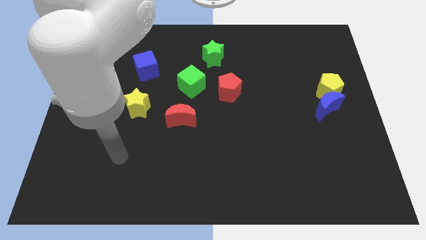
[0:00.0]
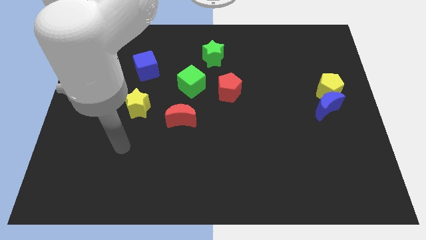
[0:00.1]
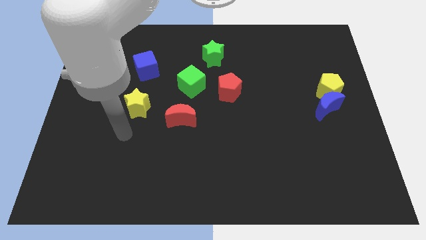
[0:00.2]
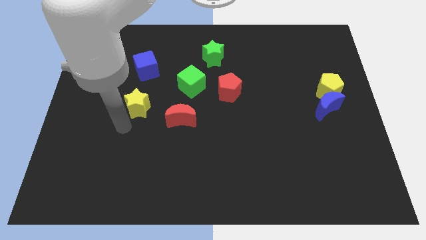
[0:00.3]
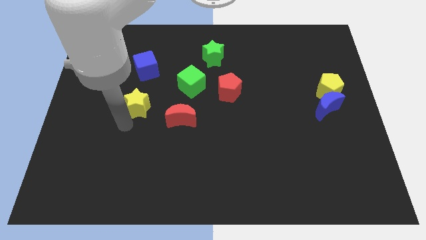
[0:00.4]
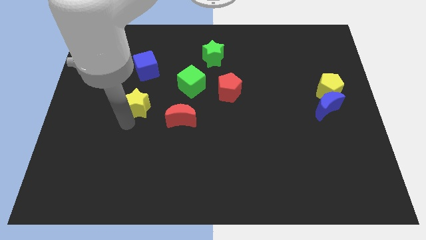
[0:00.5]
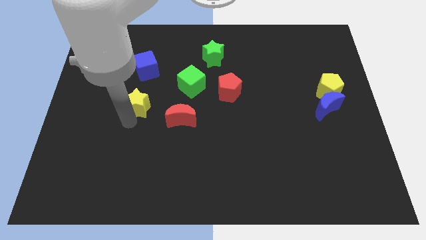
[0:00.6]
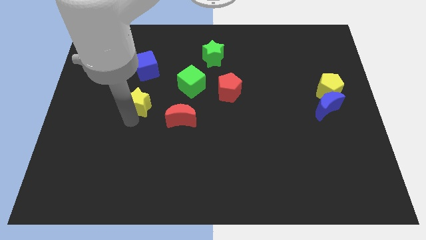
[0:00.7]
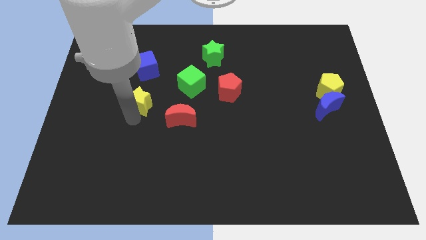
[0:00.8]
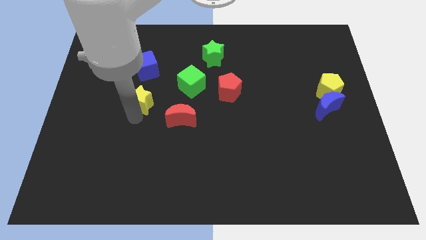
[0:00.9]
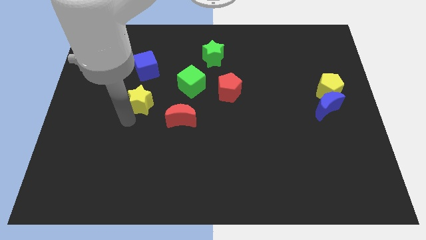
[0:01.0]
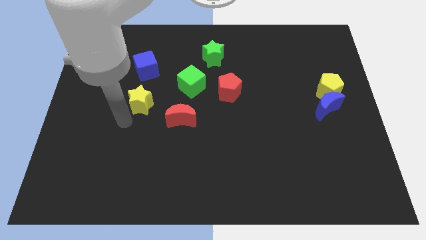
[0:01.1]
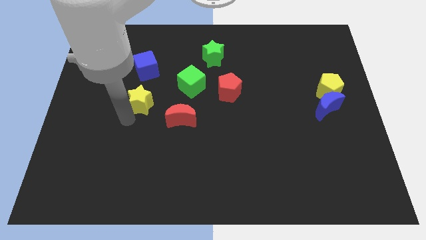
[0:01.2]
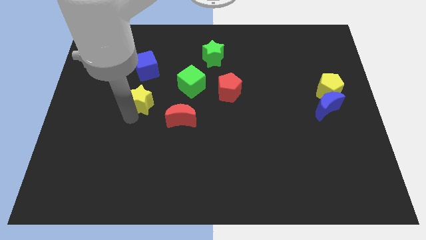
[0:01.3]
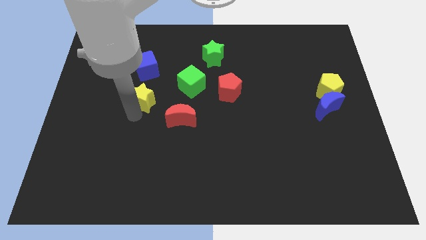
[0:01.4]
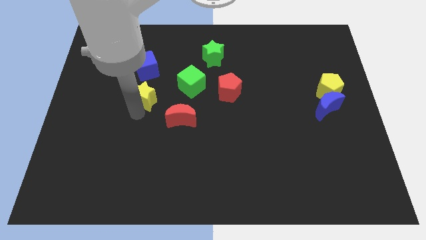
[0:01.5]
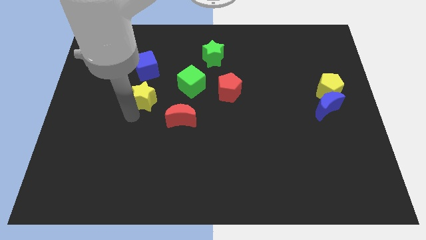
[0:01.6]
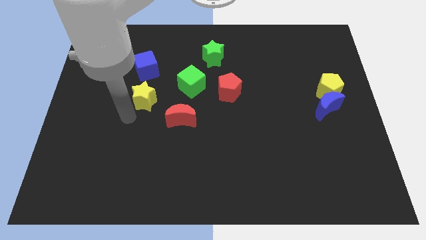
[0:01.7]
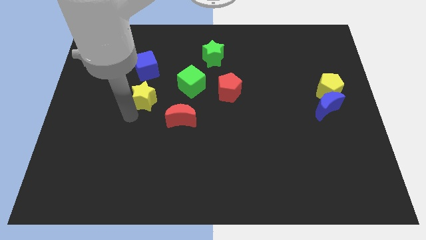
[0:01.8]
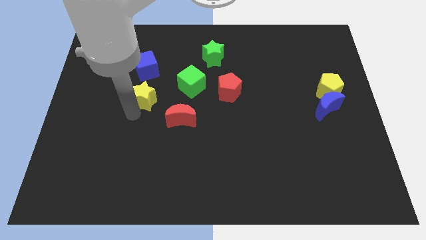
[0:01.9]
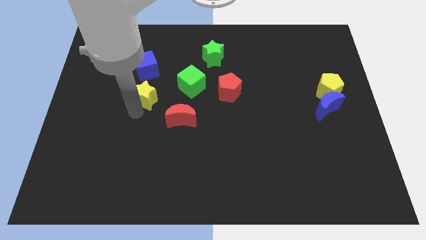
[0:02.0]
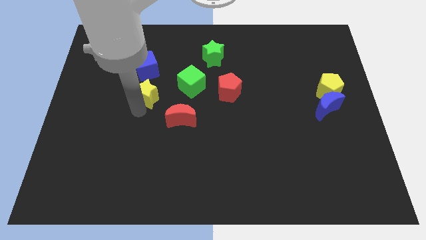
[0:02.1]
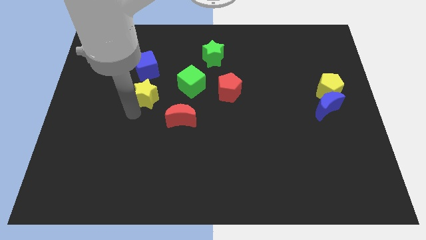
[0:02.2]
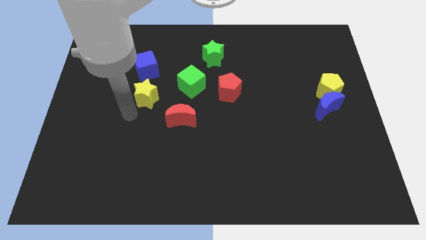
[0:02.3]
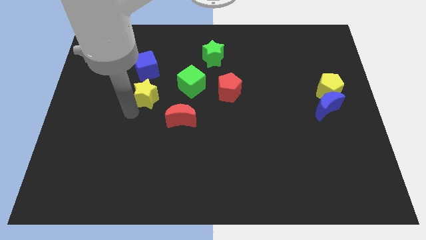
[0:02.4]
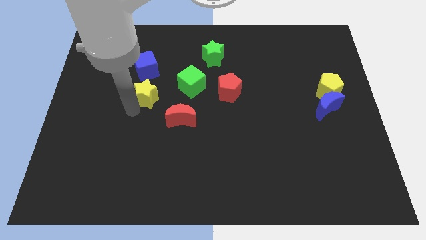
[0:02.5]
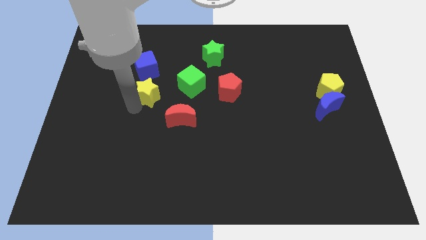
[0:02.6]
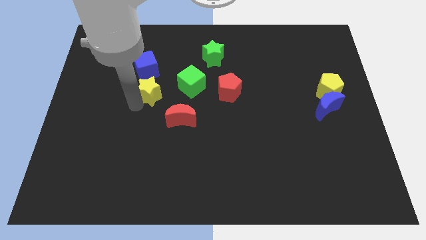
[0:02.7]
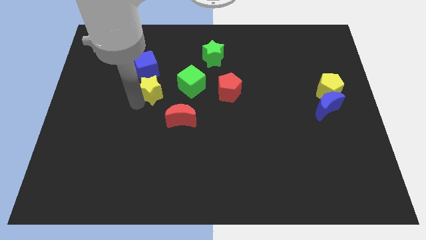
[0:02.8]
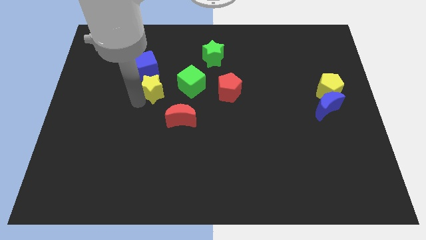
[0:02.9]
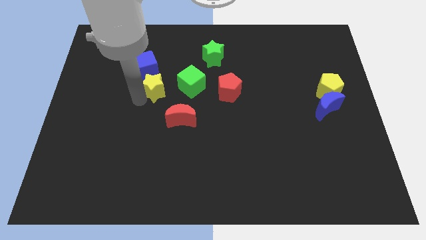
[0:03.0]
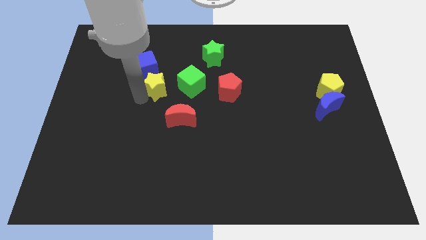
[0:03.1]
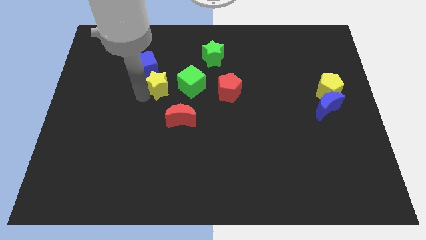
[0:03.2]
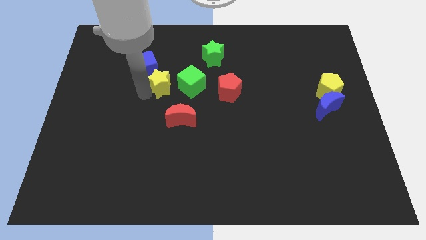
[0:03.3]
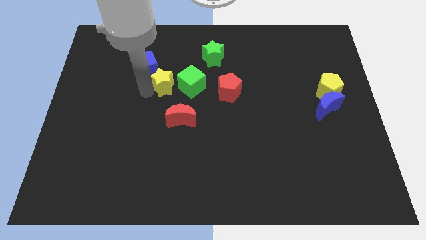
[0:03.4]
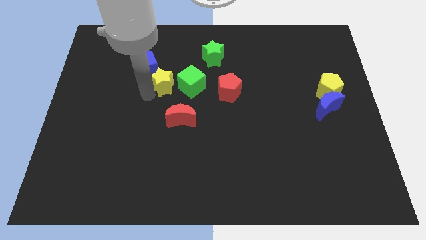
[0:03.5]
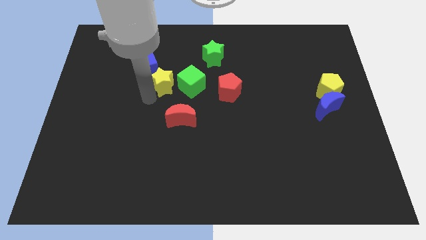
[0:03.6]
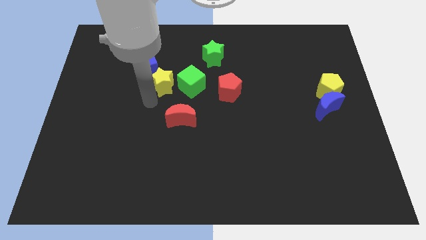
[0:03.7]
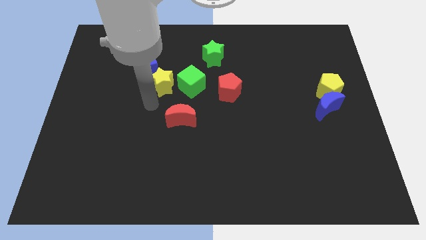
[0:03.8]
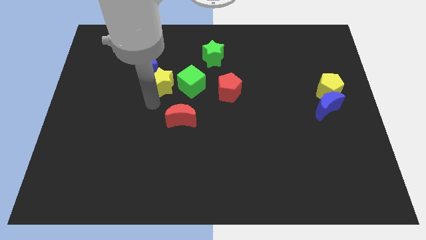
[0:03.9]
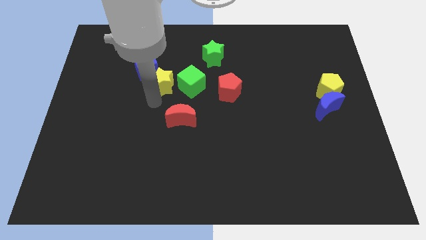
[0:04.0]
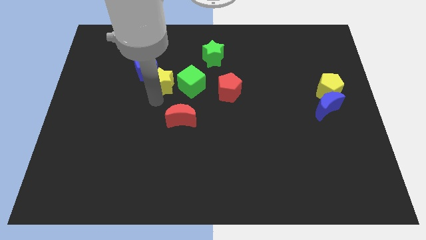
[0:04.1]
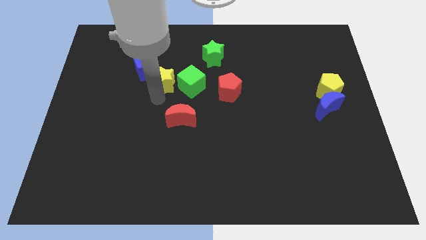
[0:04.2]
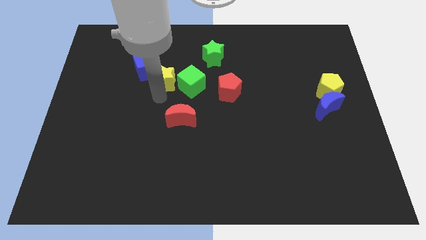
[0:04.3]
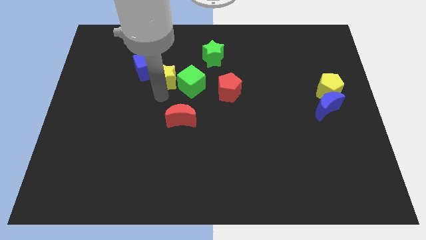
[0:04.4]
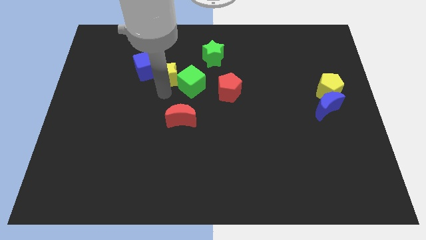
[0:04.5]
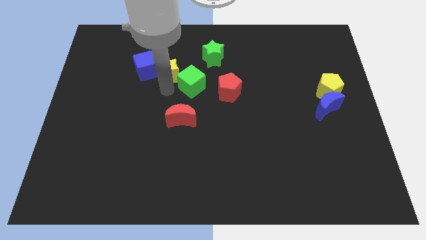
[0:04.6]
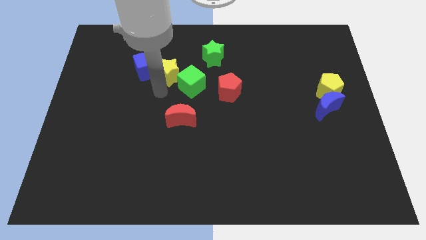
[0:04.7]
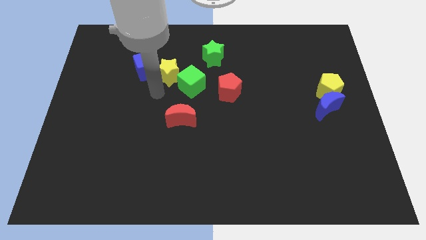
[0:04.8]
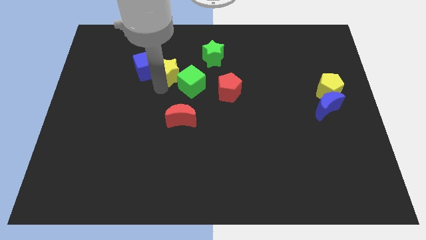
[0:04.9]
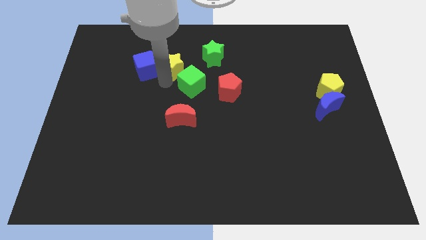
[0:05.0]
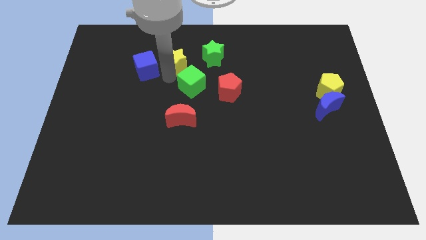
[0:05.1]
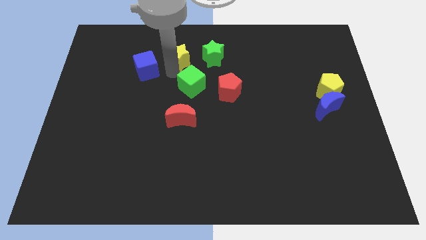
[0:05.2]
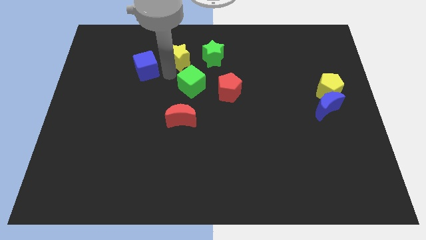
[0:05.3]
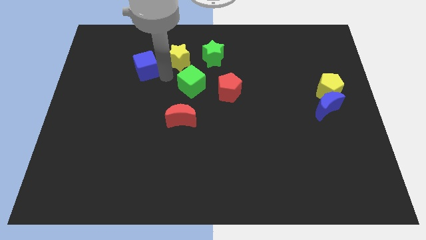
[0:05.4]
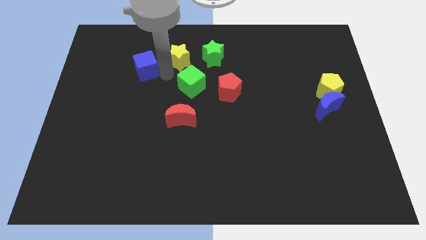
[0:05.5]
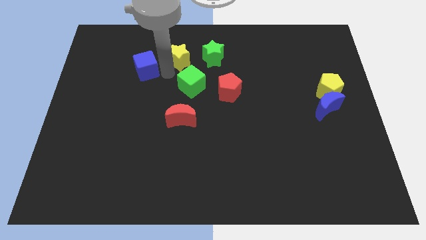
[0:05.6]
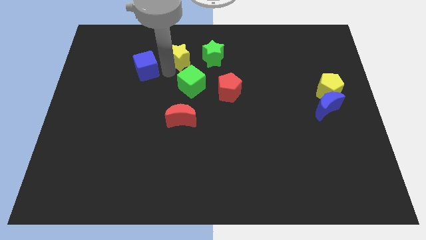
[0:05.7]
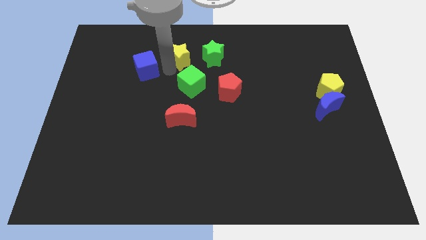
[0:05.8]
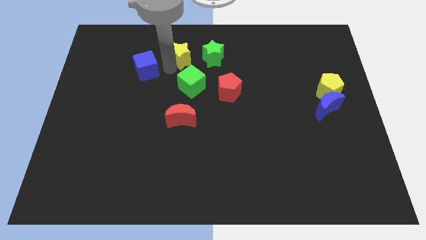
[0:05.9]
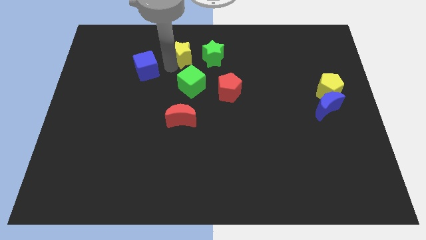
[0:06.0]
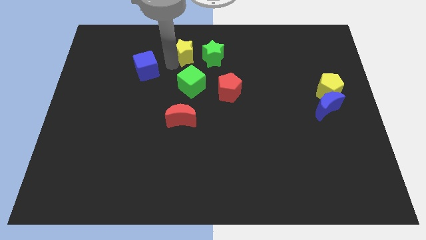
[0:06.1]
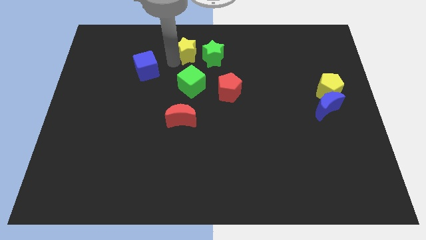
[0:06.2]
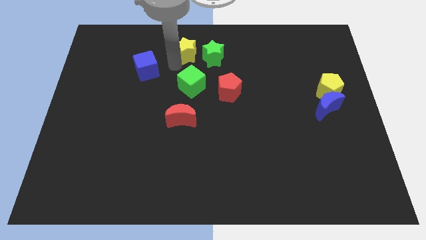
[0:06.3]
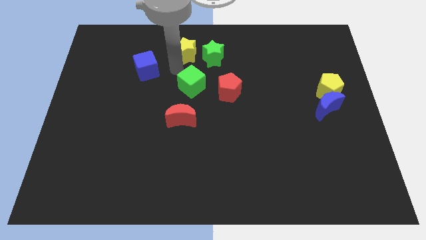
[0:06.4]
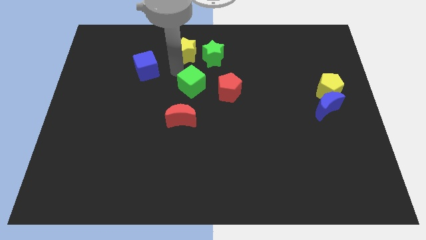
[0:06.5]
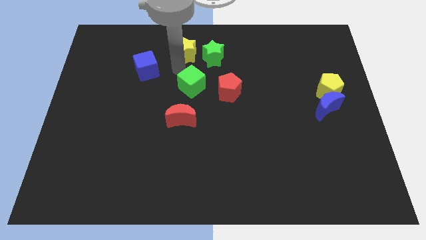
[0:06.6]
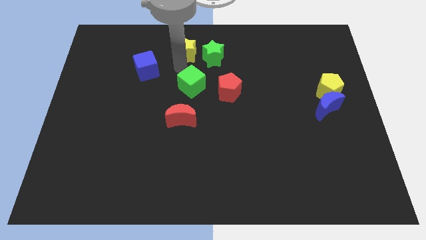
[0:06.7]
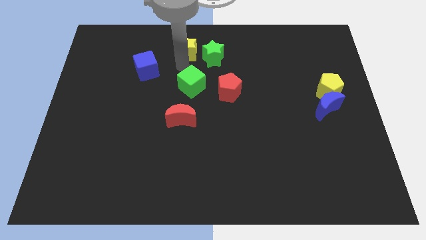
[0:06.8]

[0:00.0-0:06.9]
put the yellow star to the top side

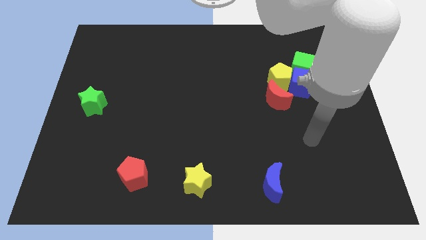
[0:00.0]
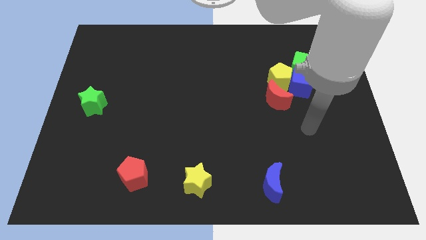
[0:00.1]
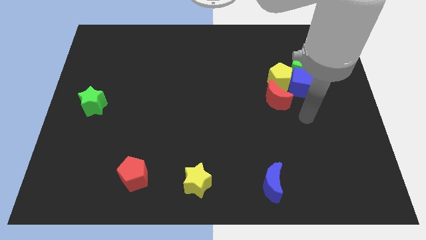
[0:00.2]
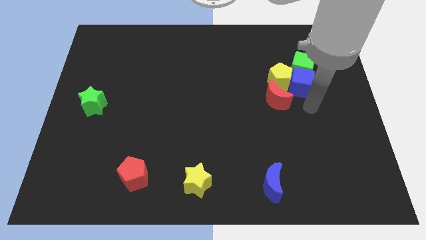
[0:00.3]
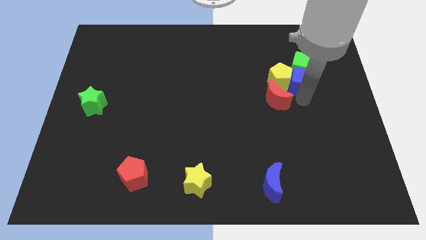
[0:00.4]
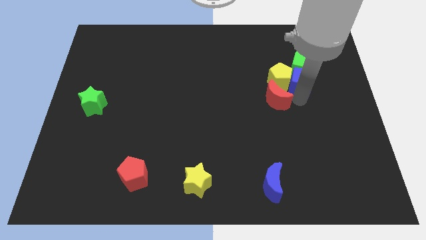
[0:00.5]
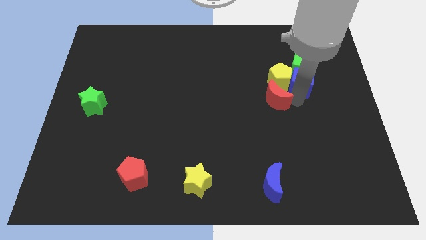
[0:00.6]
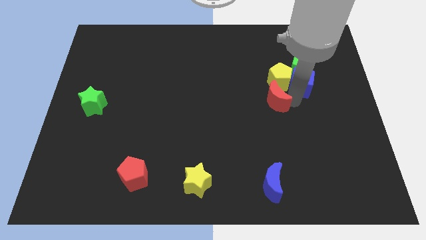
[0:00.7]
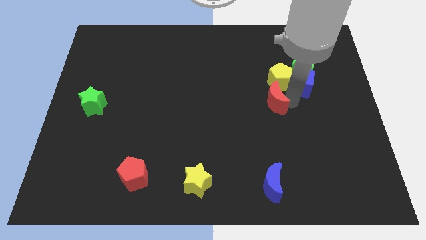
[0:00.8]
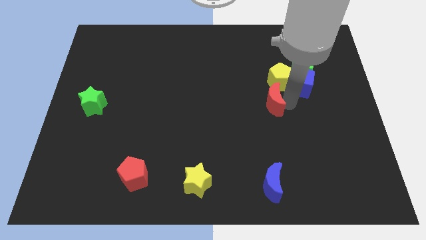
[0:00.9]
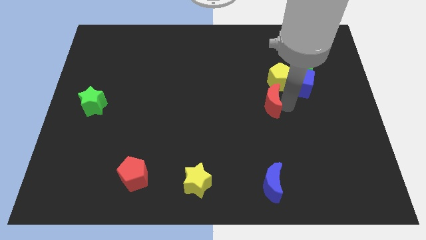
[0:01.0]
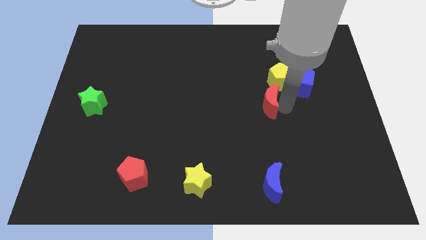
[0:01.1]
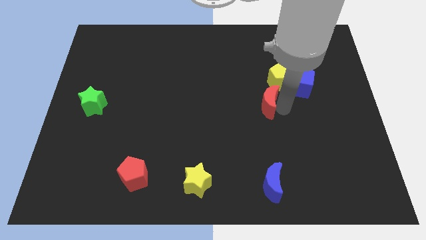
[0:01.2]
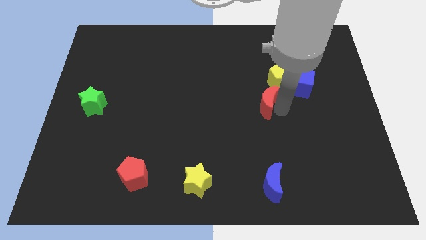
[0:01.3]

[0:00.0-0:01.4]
put the red moon to the middle of the board
